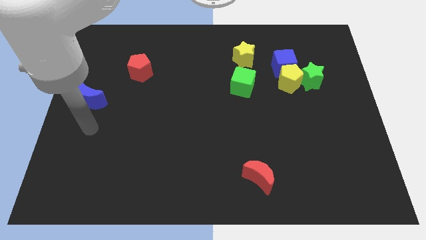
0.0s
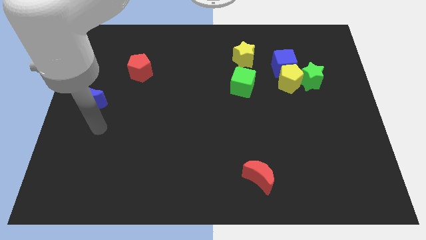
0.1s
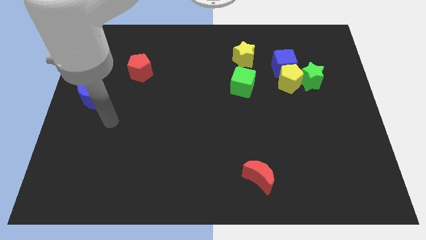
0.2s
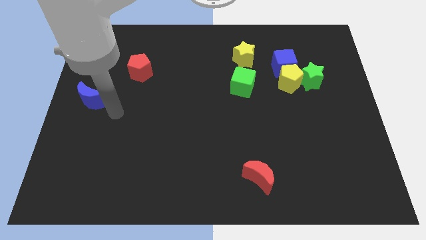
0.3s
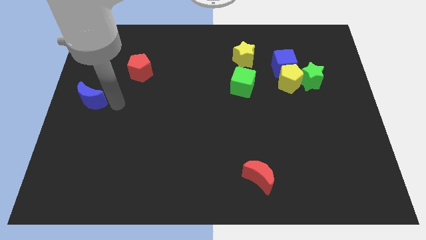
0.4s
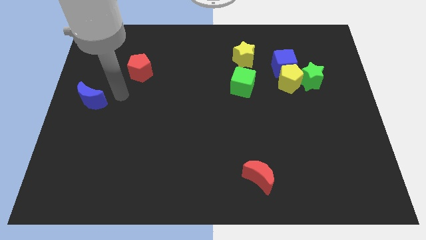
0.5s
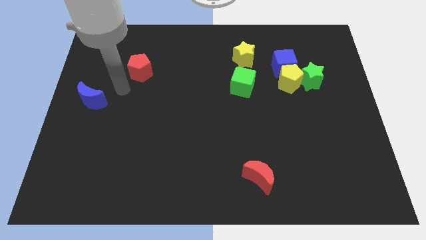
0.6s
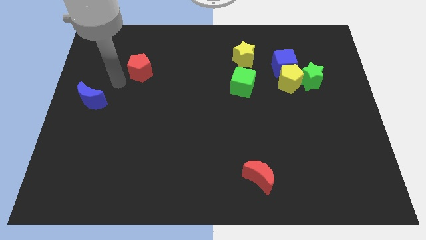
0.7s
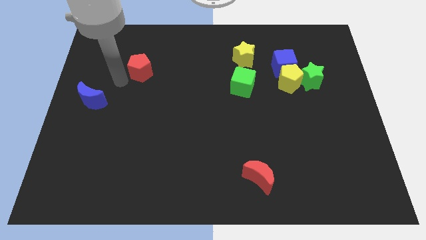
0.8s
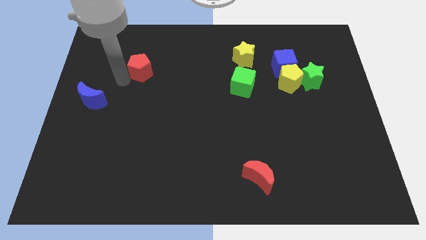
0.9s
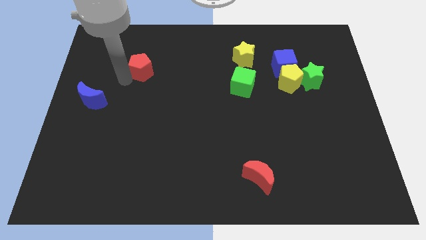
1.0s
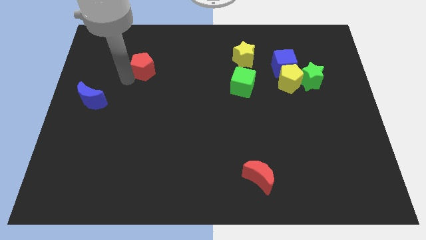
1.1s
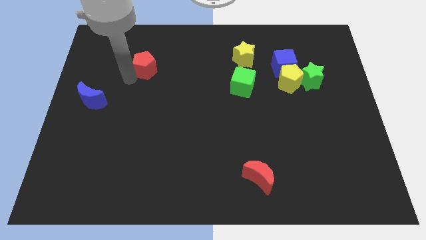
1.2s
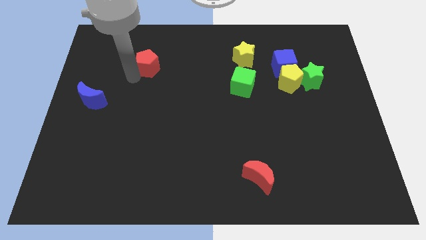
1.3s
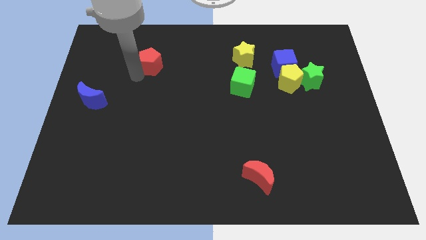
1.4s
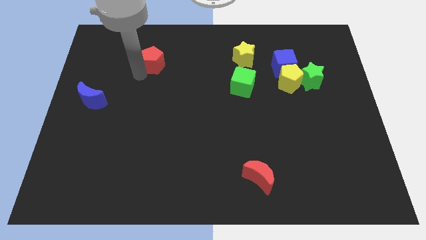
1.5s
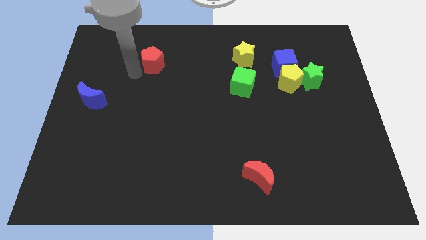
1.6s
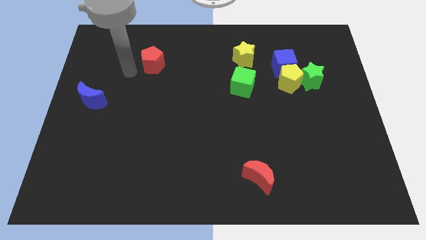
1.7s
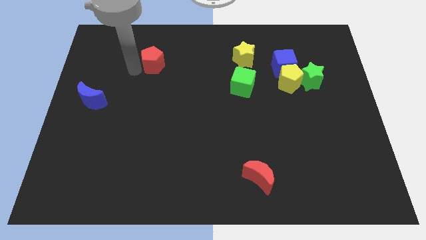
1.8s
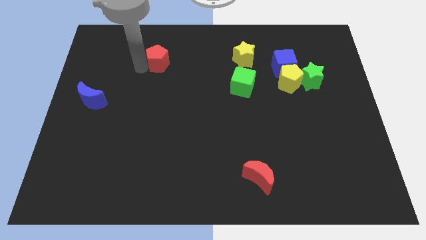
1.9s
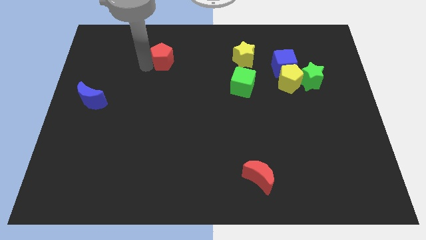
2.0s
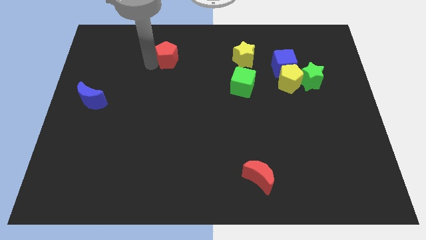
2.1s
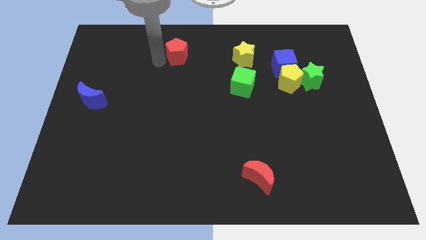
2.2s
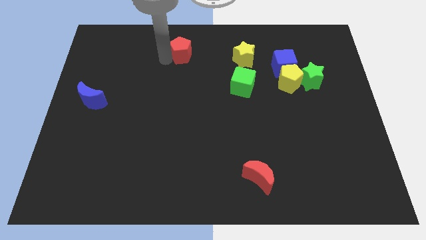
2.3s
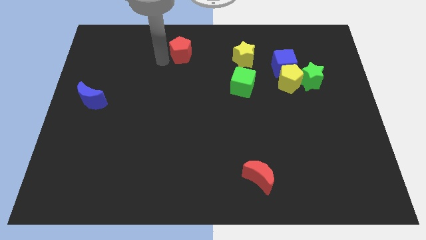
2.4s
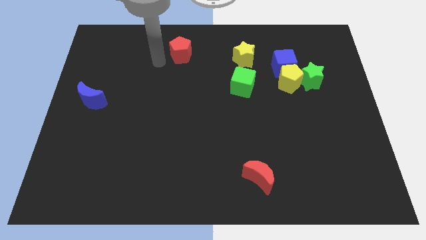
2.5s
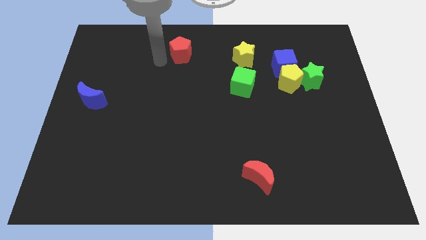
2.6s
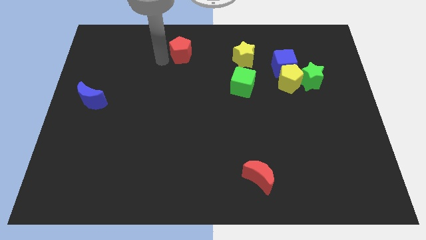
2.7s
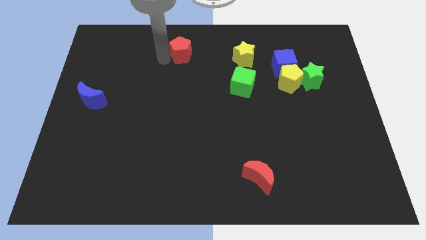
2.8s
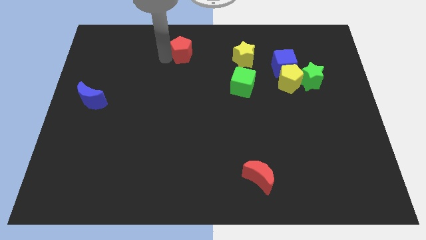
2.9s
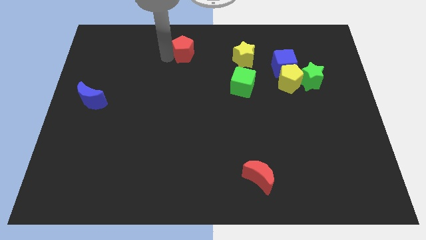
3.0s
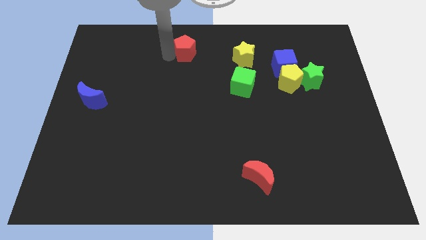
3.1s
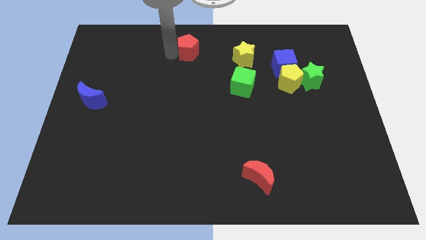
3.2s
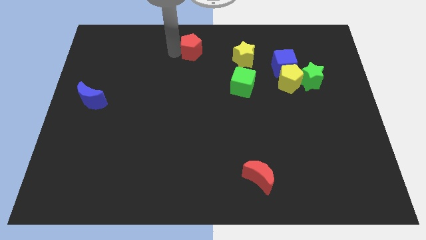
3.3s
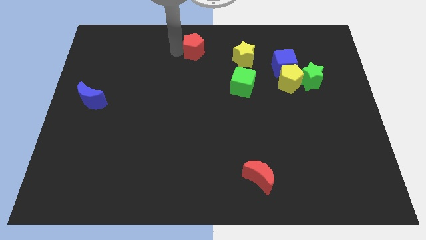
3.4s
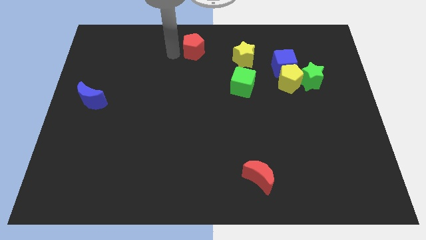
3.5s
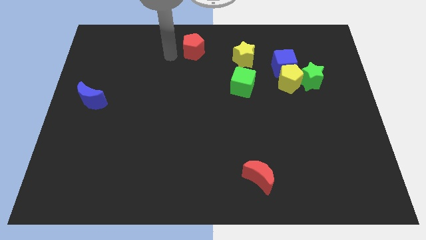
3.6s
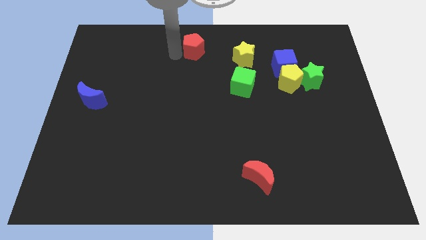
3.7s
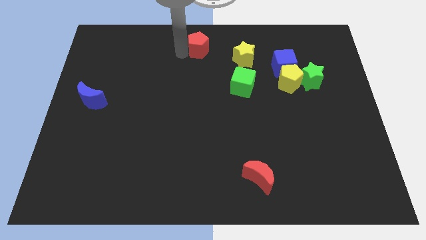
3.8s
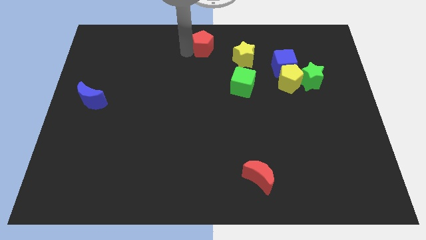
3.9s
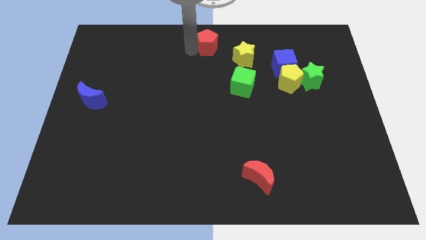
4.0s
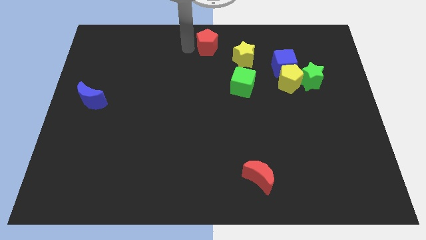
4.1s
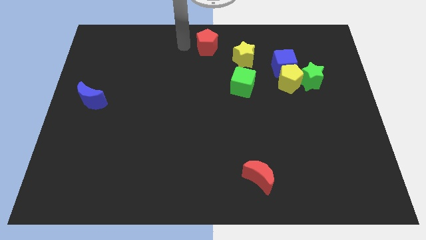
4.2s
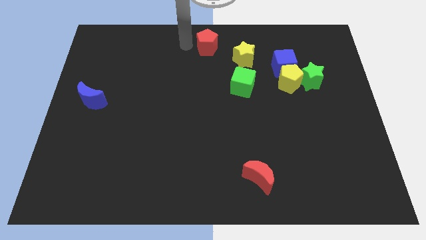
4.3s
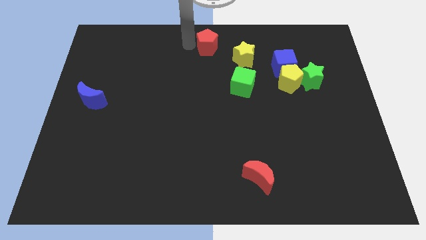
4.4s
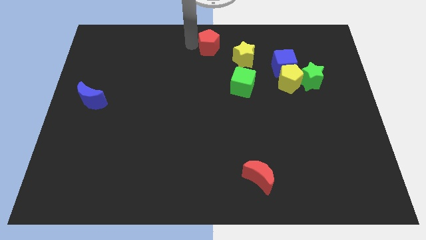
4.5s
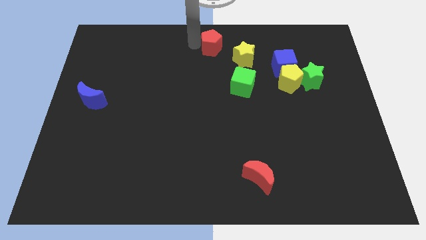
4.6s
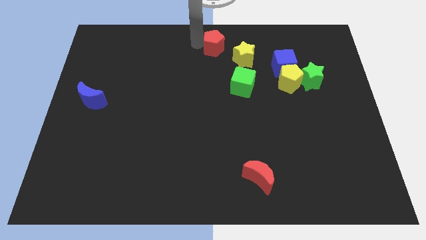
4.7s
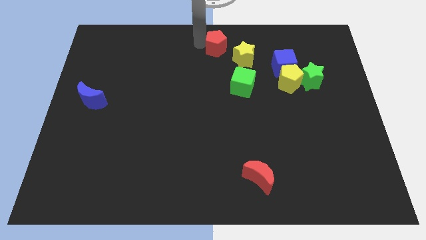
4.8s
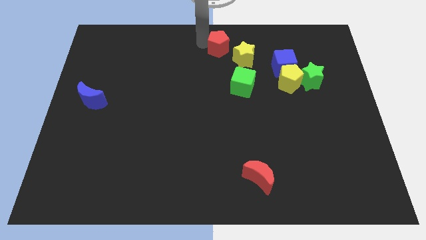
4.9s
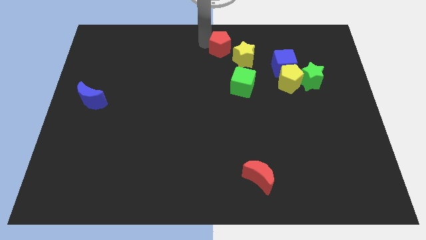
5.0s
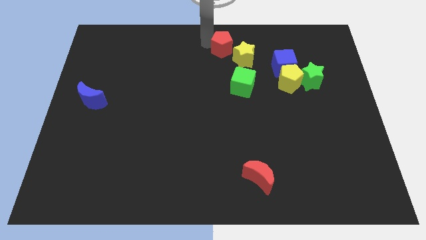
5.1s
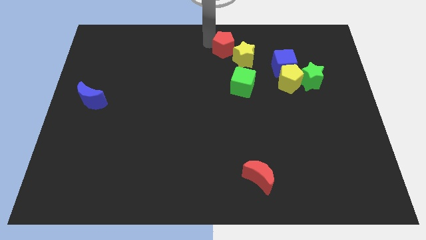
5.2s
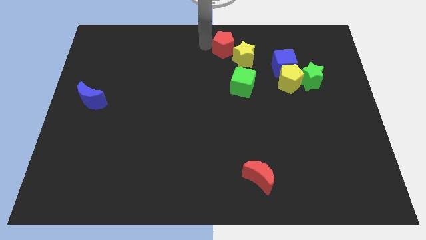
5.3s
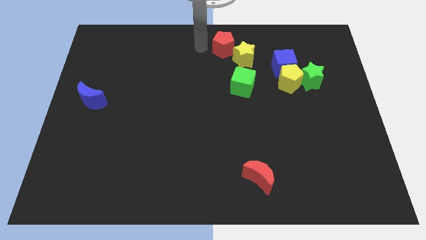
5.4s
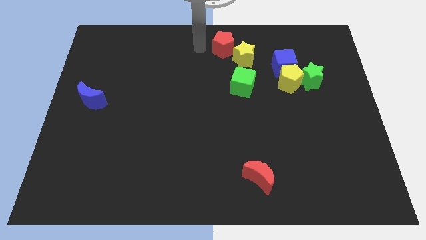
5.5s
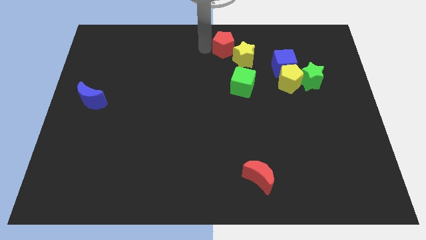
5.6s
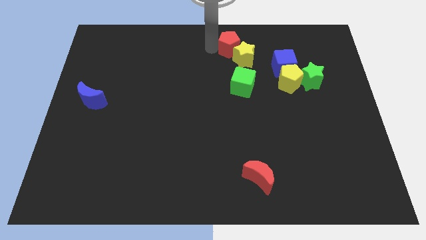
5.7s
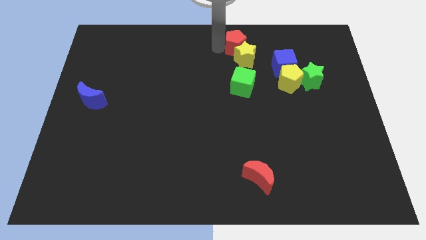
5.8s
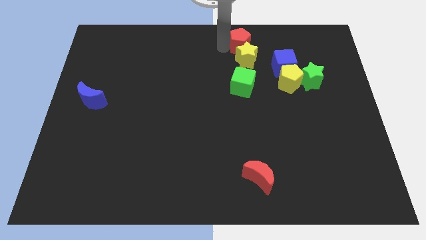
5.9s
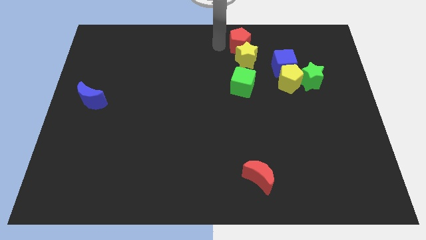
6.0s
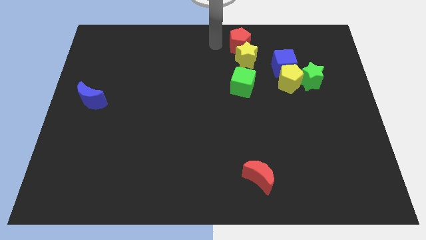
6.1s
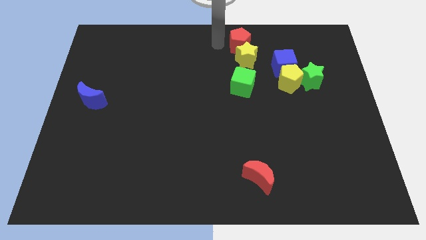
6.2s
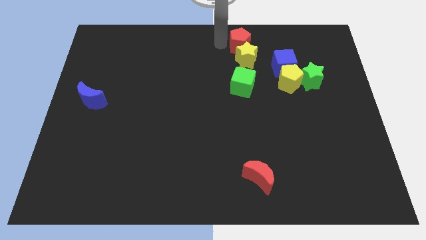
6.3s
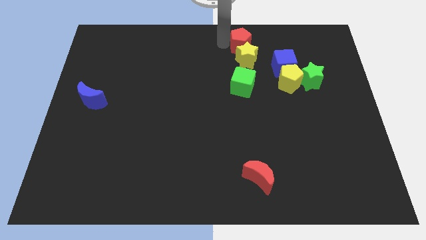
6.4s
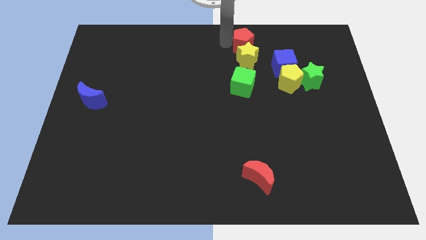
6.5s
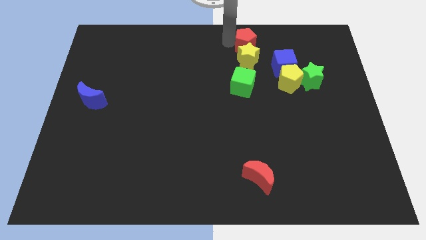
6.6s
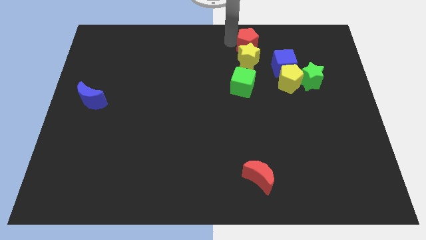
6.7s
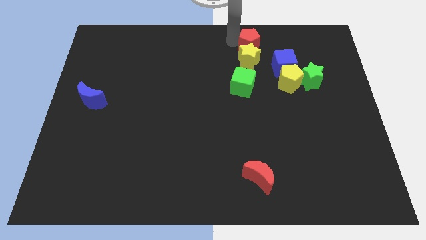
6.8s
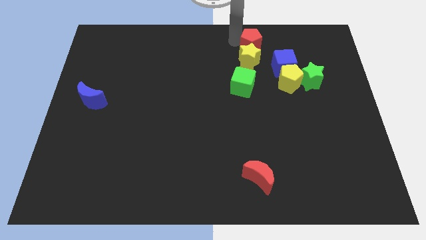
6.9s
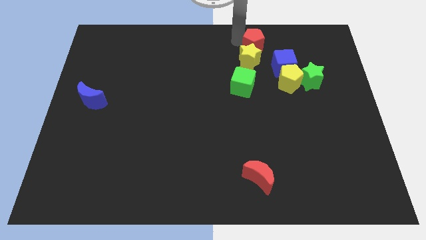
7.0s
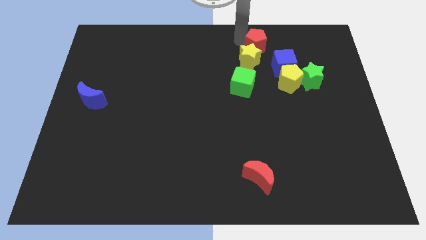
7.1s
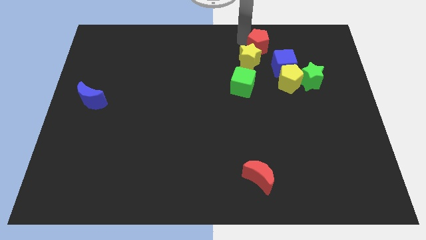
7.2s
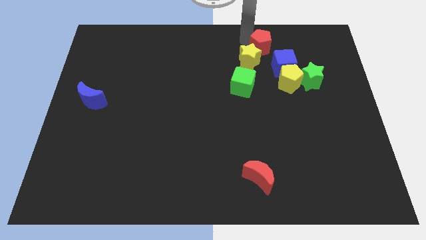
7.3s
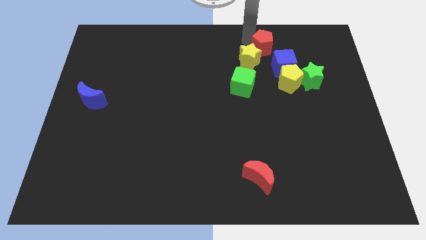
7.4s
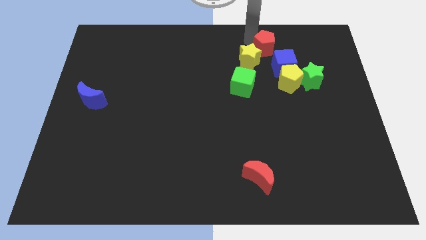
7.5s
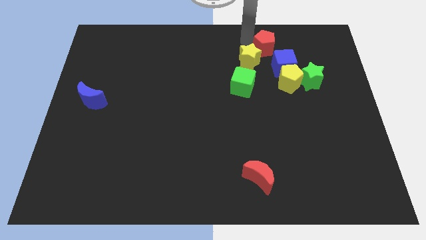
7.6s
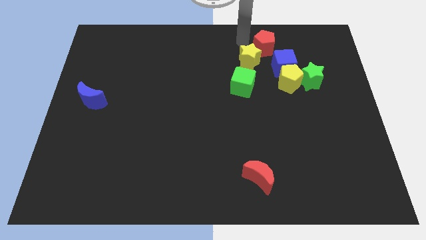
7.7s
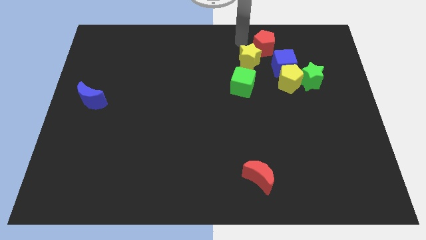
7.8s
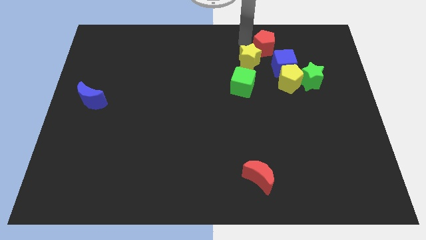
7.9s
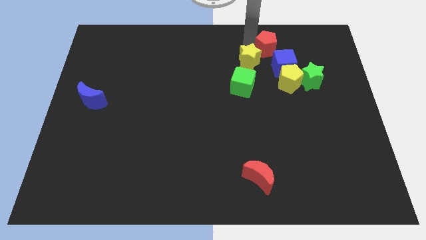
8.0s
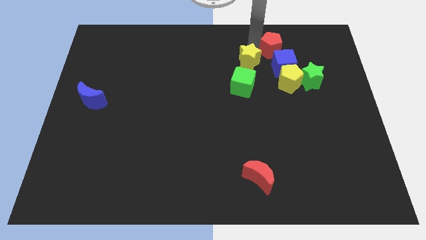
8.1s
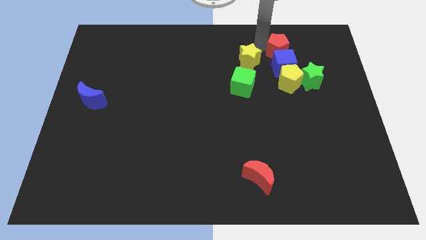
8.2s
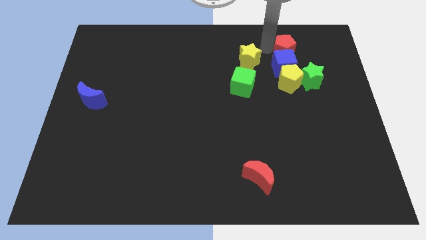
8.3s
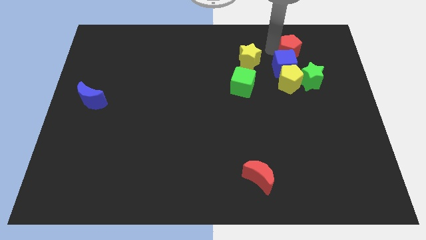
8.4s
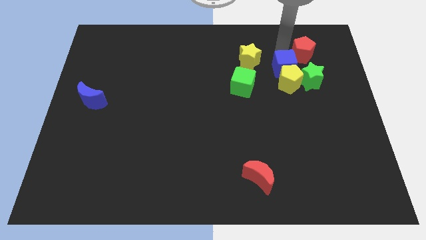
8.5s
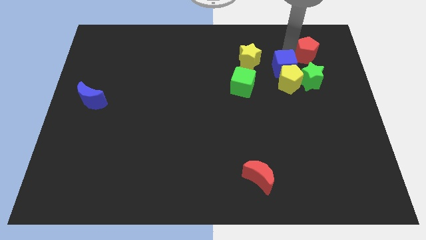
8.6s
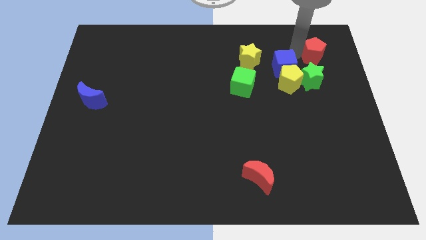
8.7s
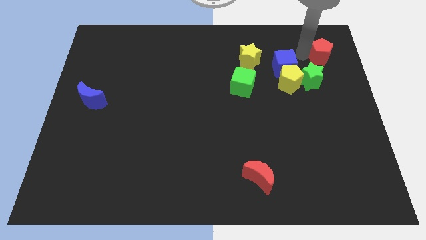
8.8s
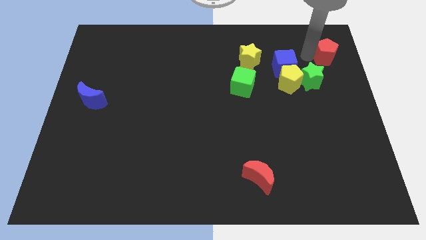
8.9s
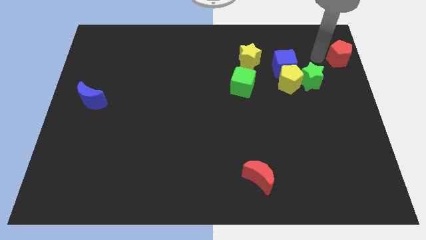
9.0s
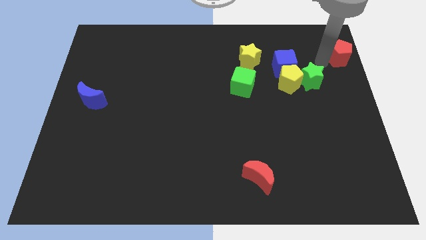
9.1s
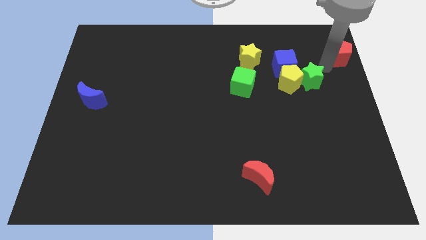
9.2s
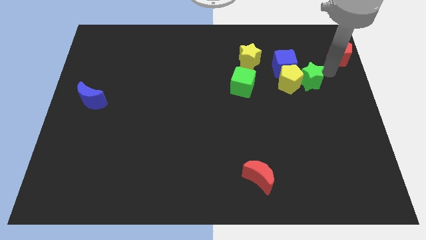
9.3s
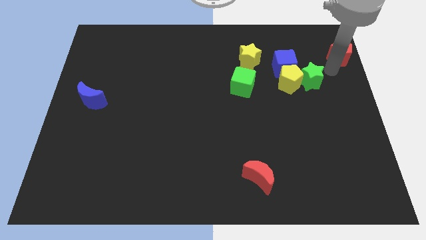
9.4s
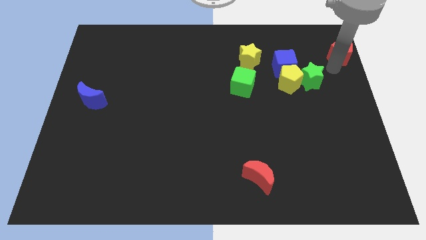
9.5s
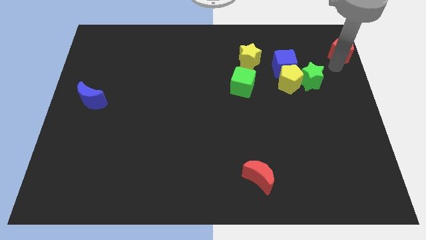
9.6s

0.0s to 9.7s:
push the red pentagon to the upper right corner
